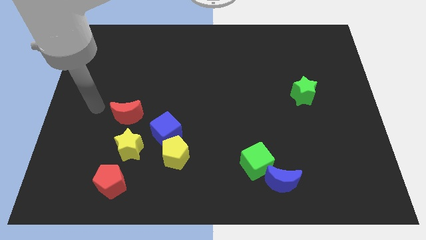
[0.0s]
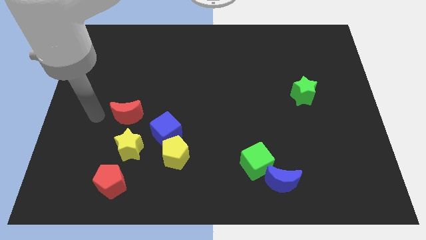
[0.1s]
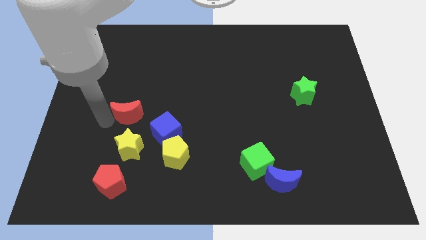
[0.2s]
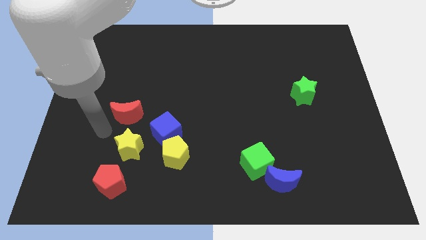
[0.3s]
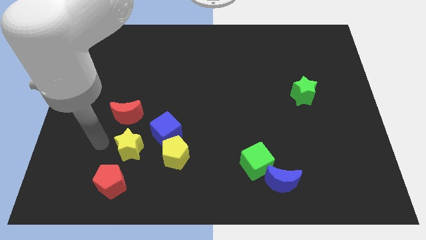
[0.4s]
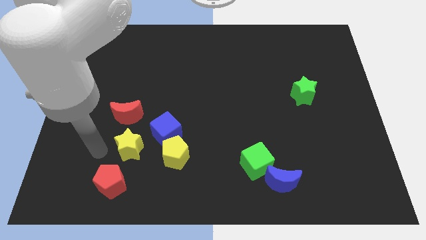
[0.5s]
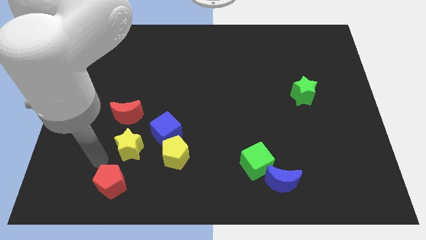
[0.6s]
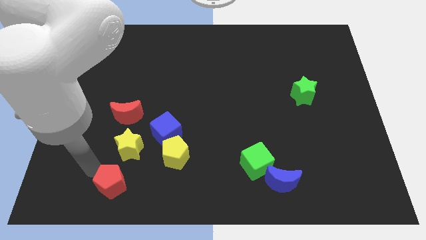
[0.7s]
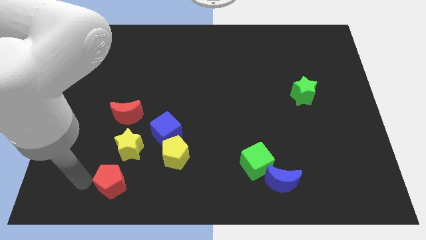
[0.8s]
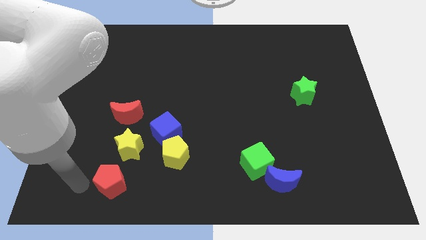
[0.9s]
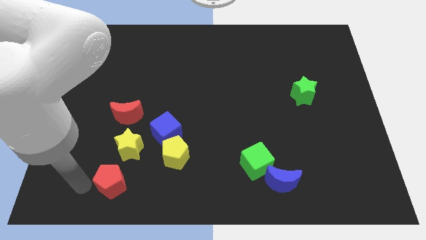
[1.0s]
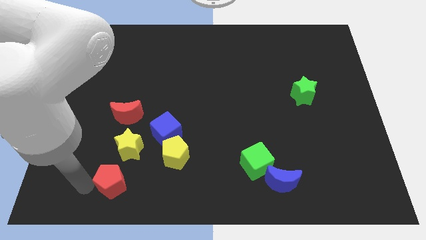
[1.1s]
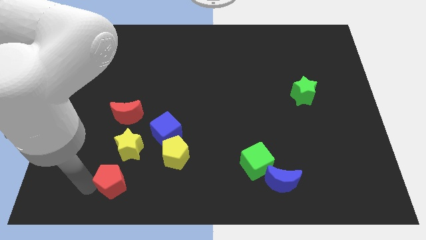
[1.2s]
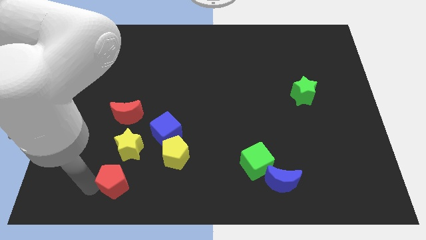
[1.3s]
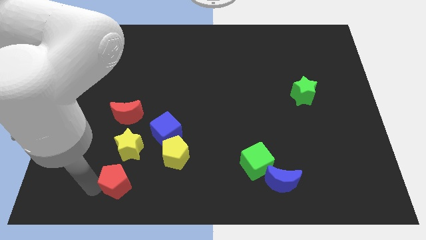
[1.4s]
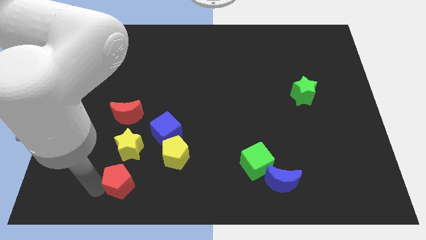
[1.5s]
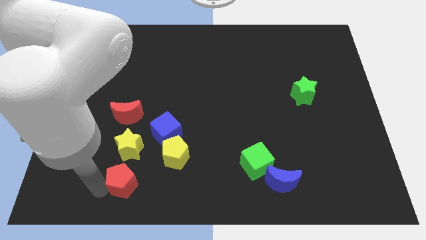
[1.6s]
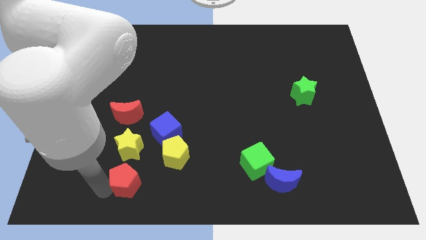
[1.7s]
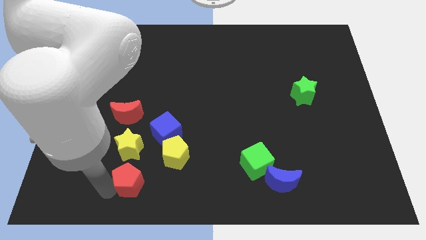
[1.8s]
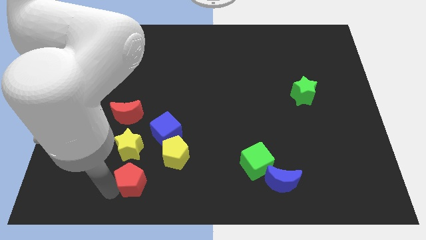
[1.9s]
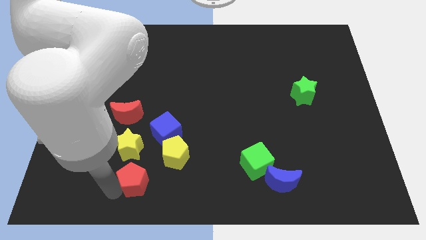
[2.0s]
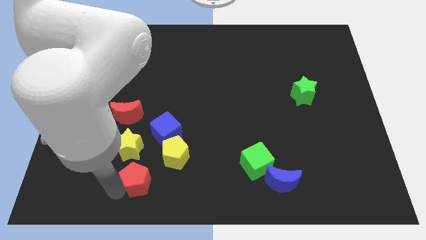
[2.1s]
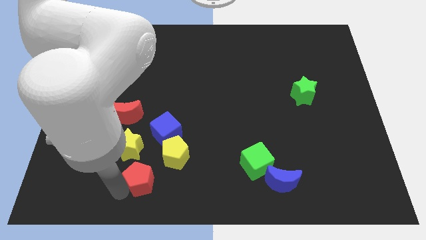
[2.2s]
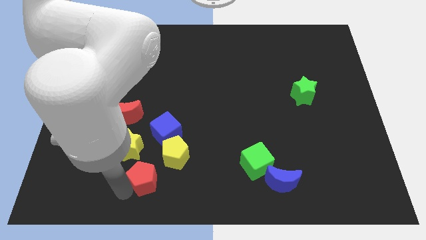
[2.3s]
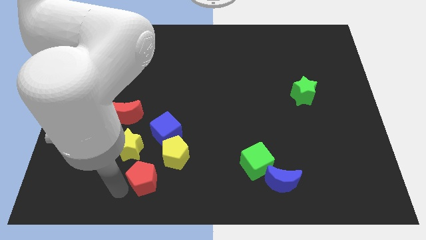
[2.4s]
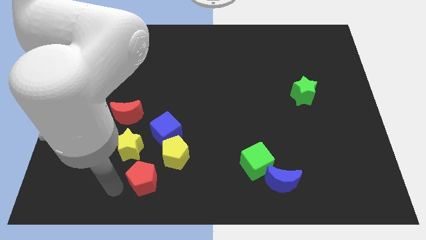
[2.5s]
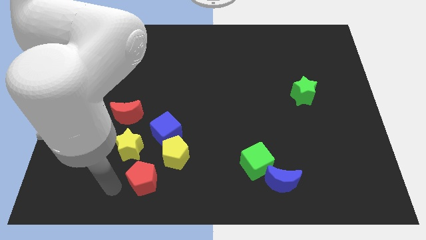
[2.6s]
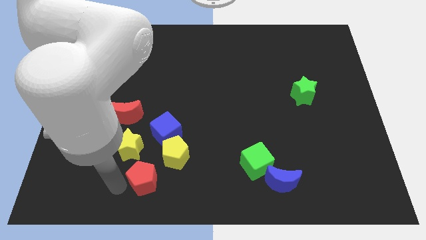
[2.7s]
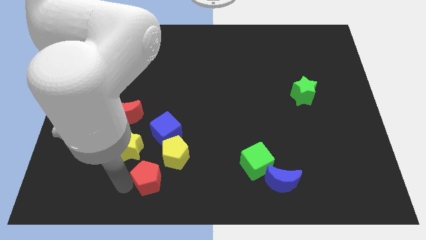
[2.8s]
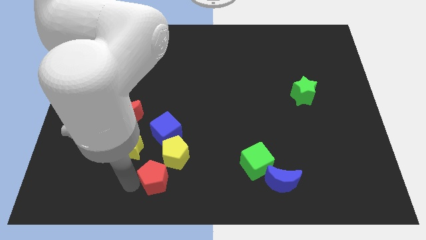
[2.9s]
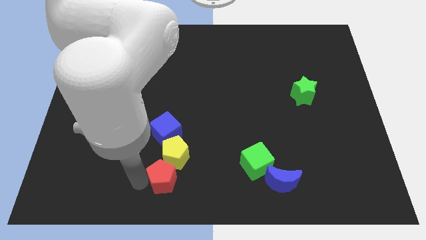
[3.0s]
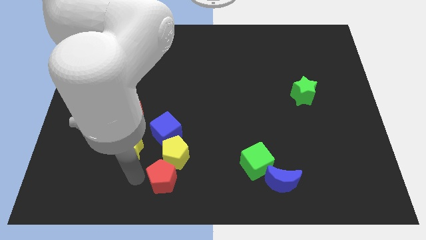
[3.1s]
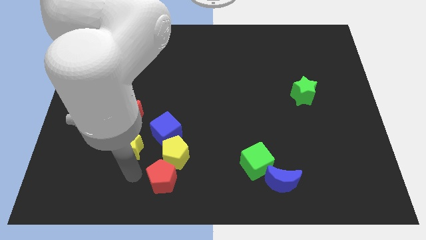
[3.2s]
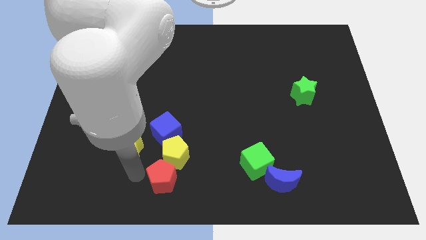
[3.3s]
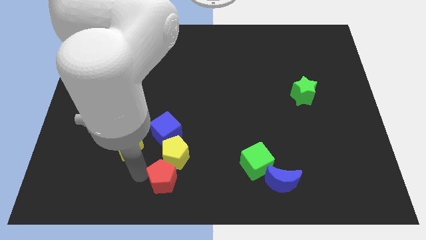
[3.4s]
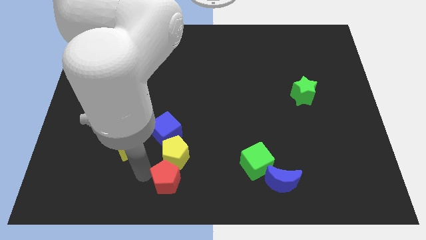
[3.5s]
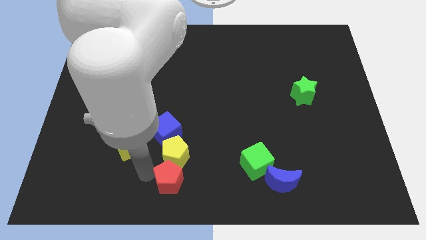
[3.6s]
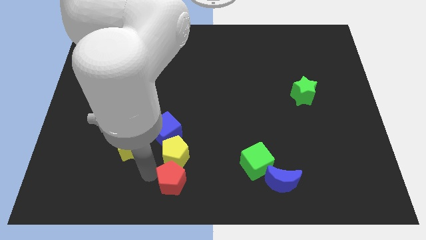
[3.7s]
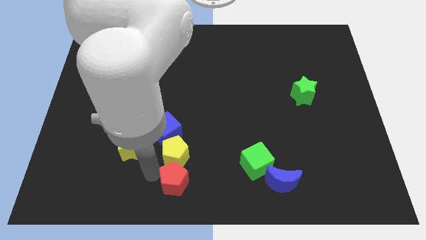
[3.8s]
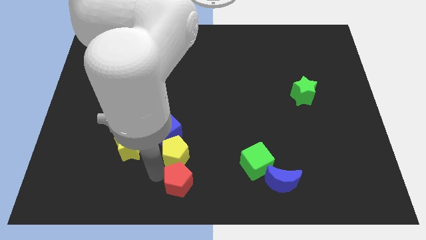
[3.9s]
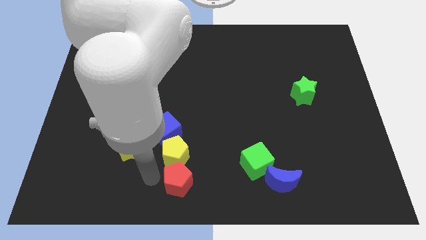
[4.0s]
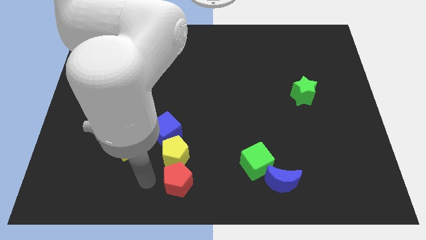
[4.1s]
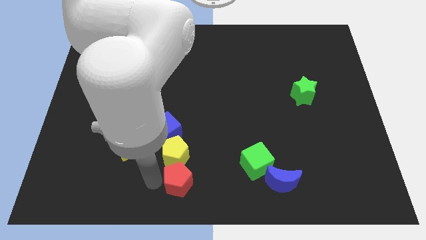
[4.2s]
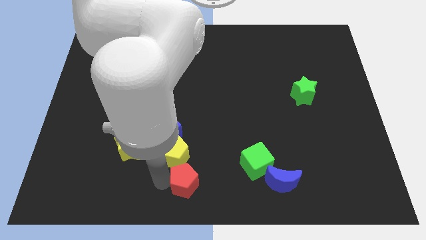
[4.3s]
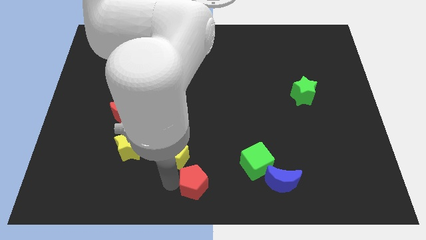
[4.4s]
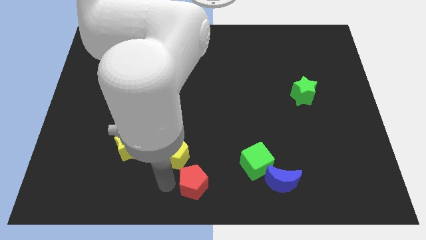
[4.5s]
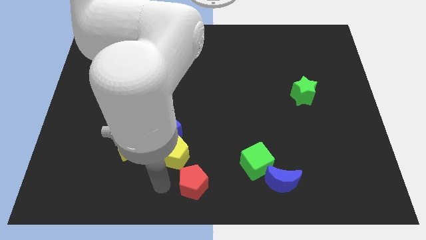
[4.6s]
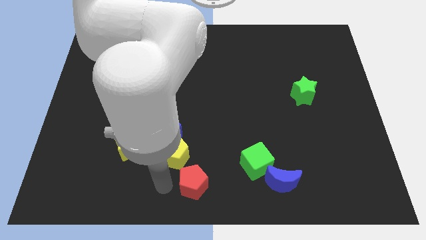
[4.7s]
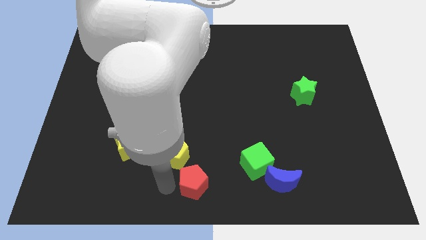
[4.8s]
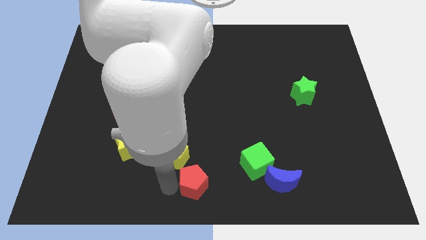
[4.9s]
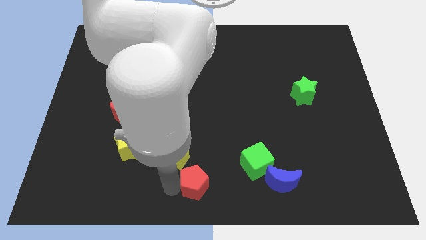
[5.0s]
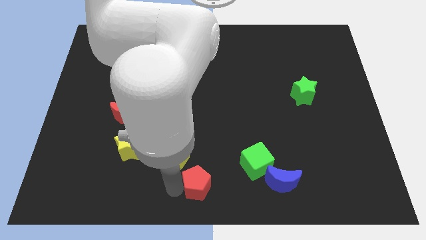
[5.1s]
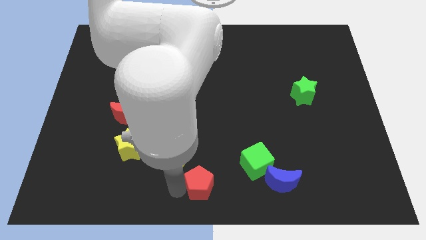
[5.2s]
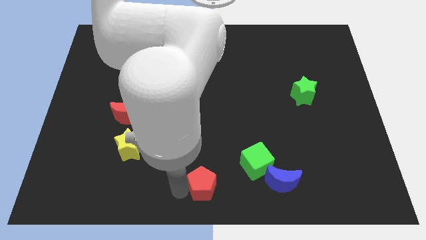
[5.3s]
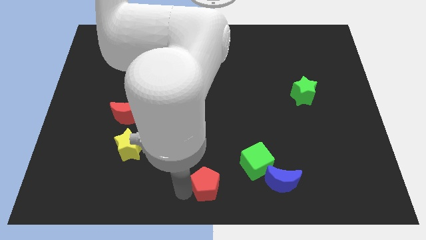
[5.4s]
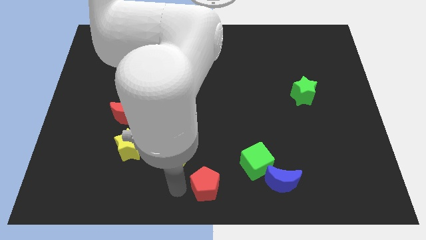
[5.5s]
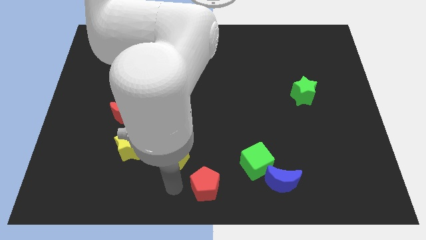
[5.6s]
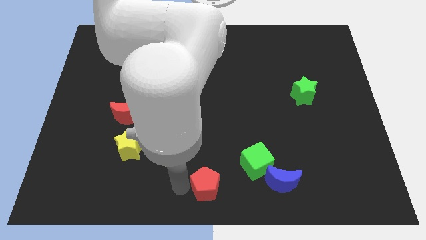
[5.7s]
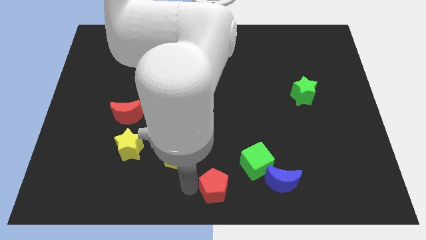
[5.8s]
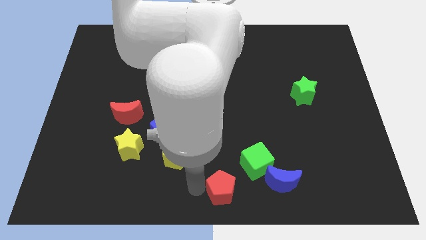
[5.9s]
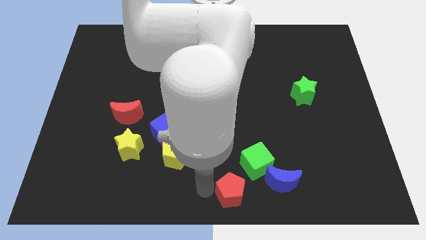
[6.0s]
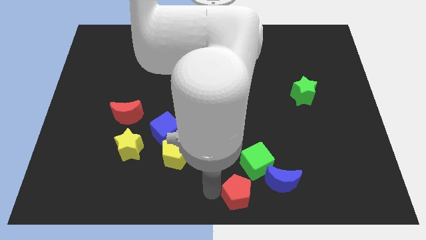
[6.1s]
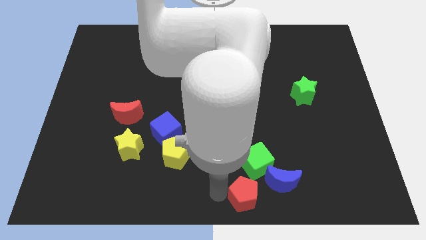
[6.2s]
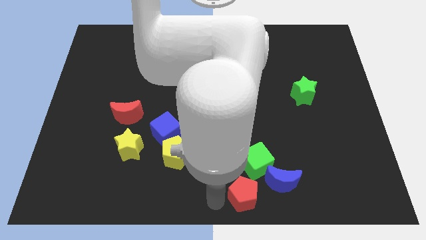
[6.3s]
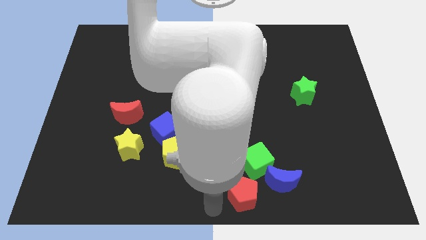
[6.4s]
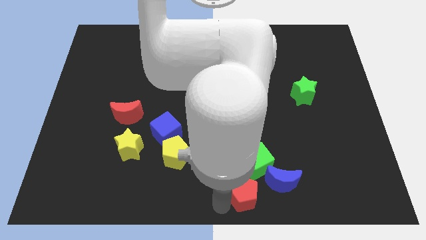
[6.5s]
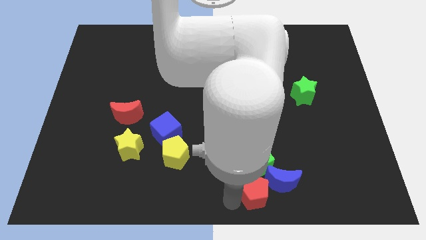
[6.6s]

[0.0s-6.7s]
push the red pentagon close to the blue moon

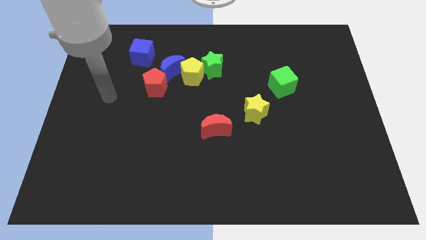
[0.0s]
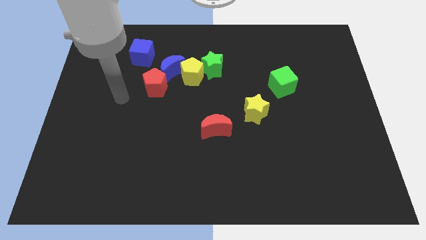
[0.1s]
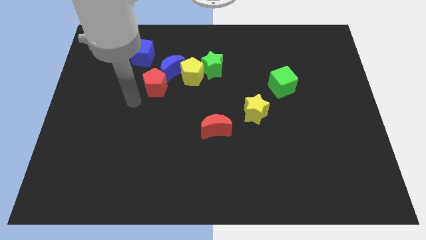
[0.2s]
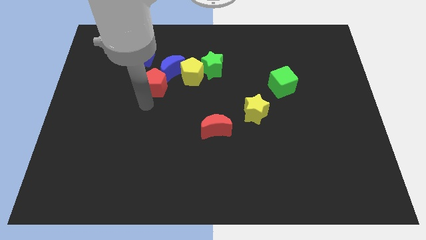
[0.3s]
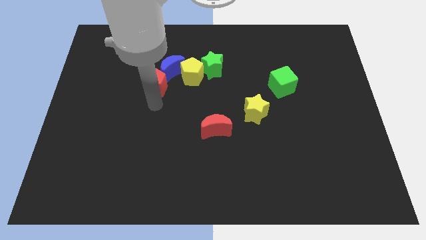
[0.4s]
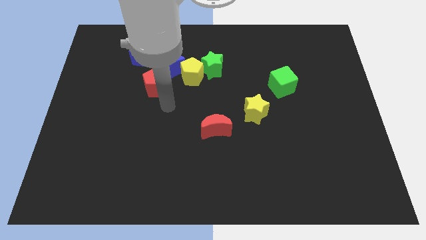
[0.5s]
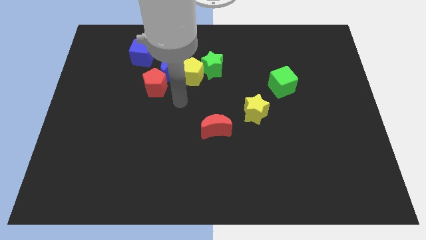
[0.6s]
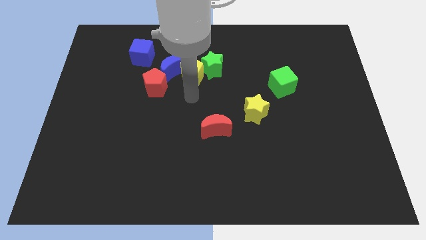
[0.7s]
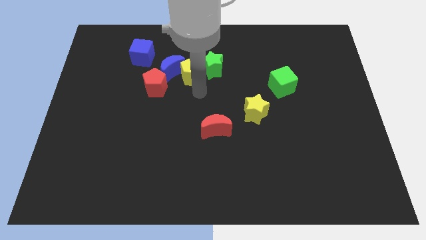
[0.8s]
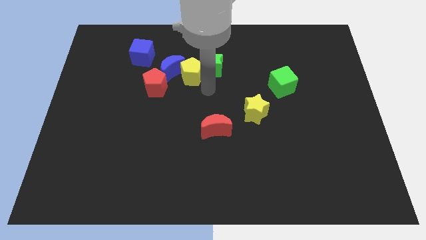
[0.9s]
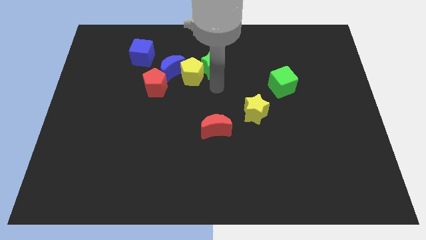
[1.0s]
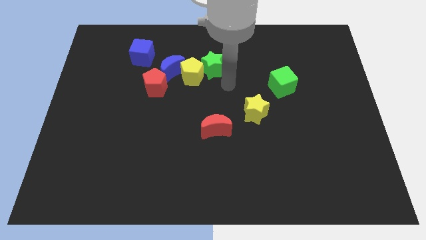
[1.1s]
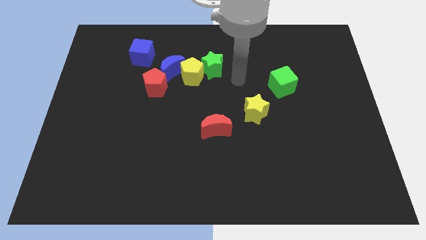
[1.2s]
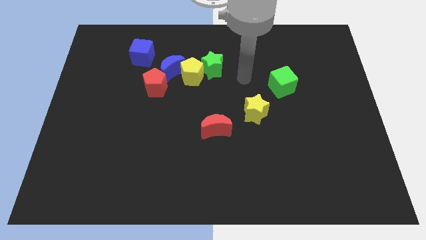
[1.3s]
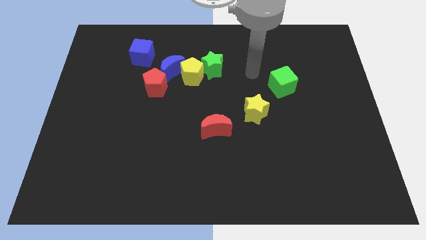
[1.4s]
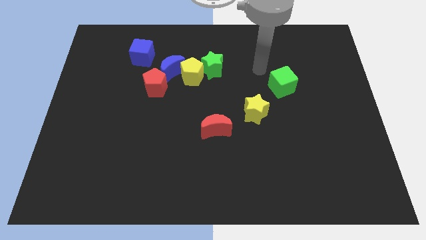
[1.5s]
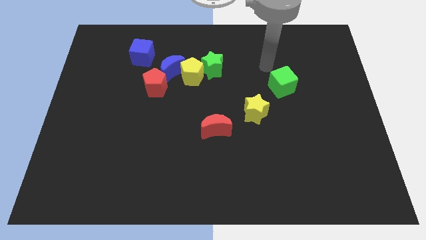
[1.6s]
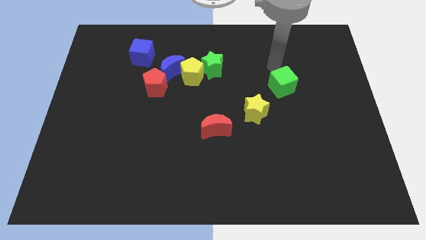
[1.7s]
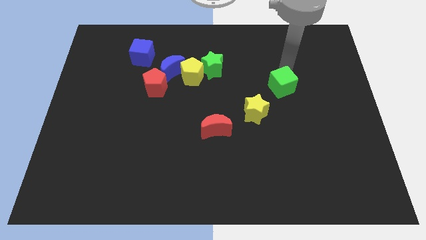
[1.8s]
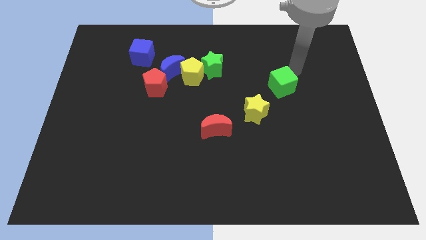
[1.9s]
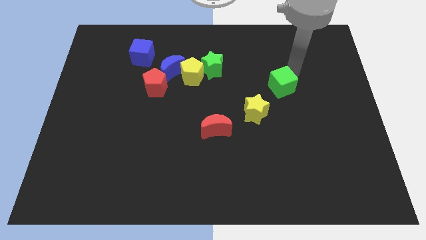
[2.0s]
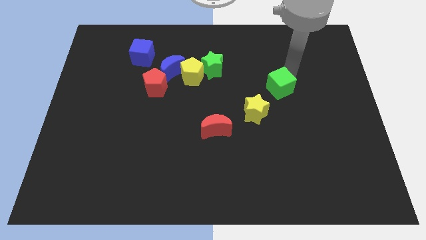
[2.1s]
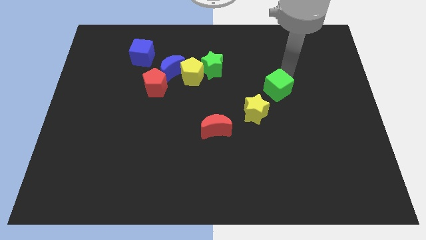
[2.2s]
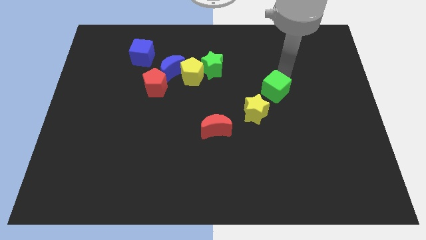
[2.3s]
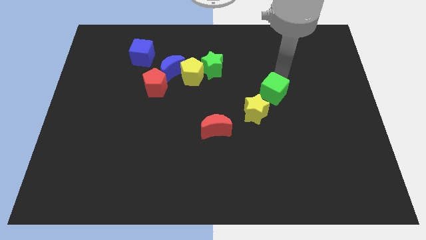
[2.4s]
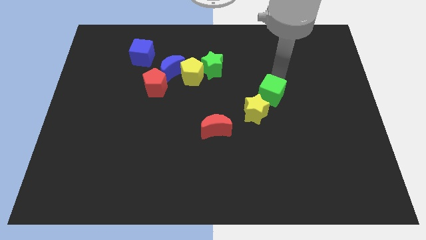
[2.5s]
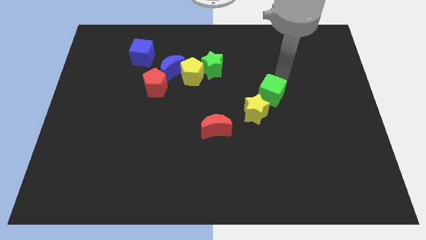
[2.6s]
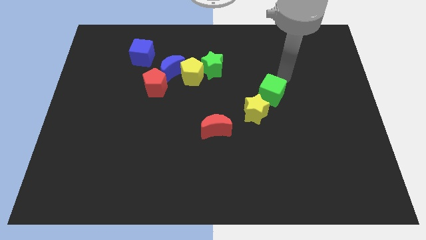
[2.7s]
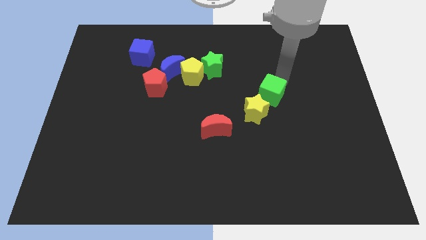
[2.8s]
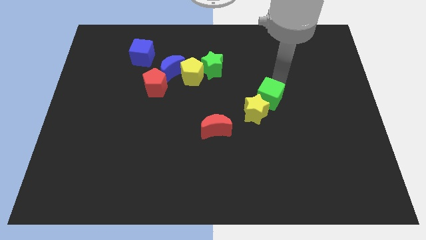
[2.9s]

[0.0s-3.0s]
slide the green cube towards the yellow star
